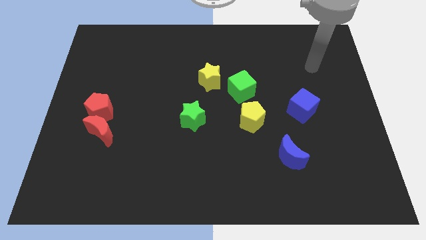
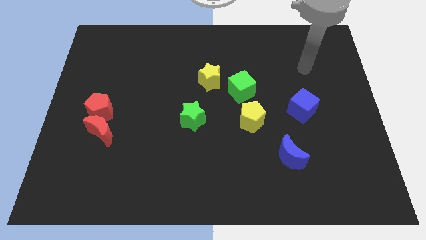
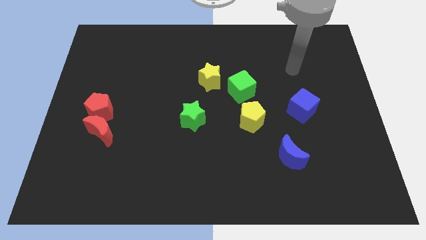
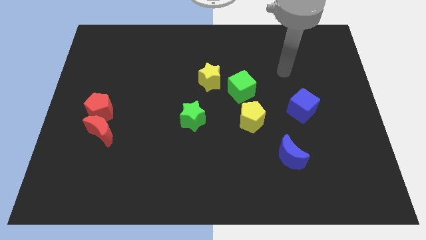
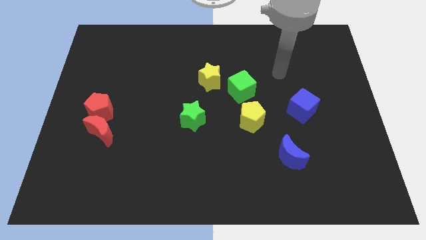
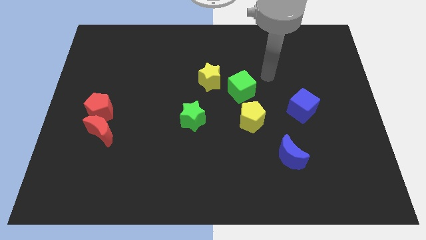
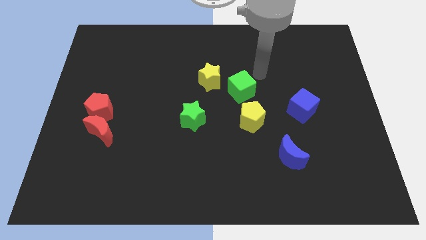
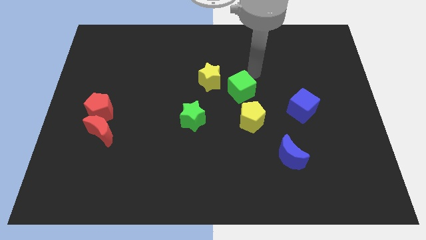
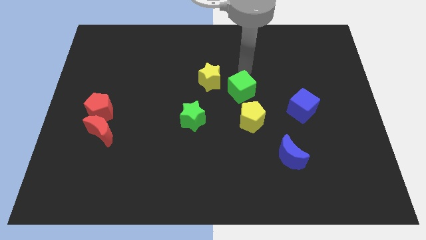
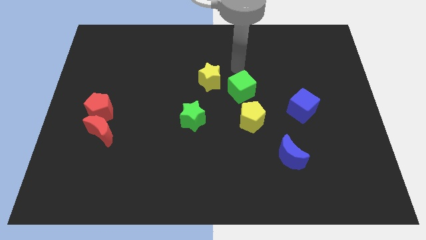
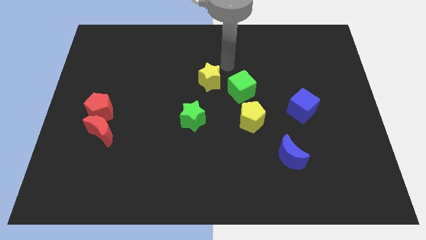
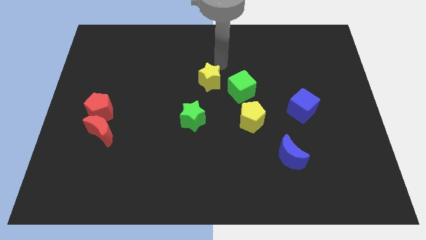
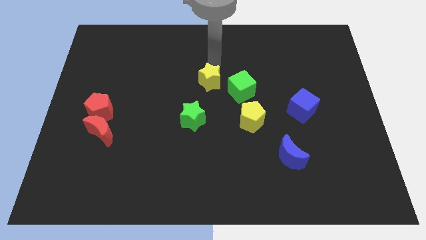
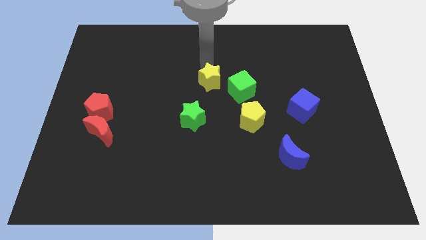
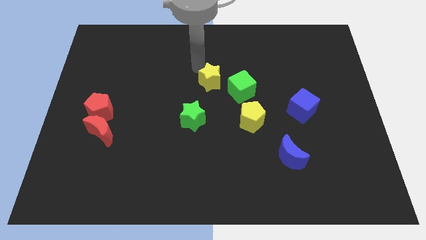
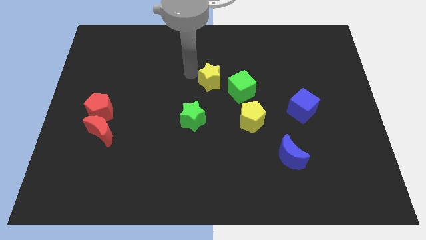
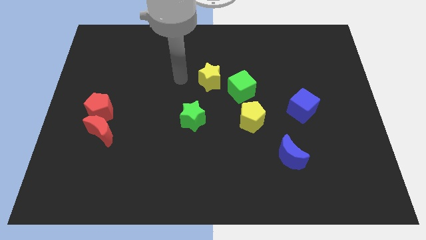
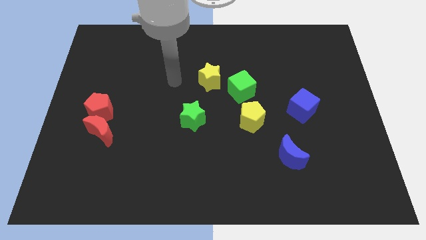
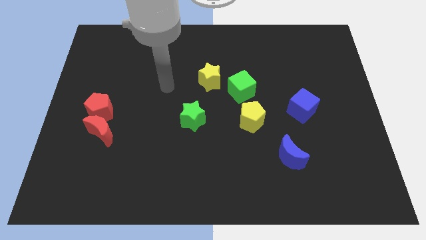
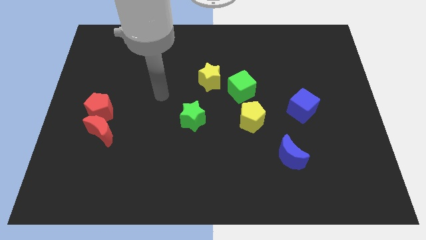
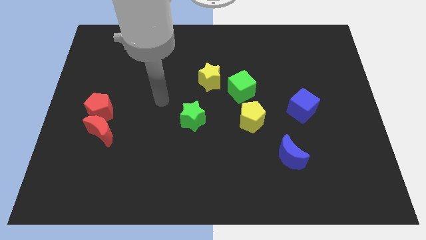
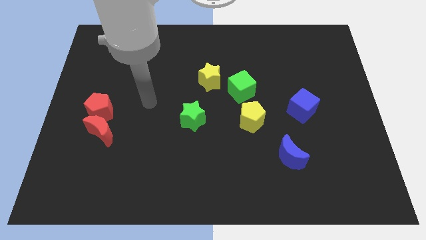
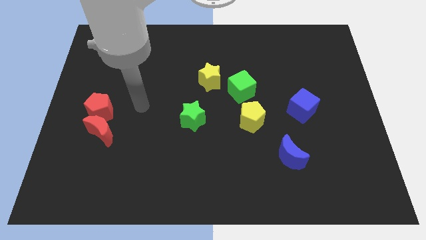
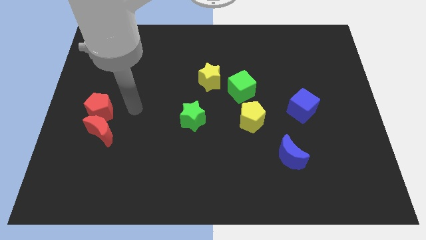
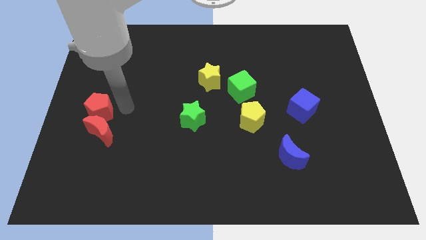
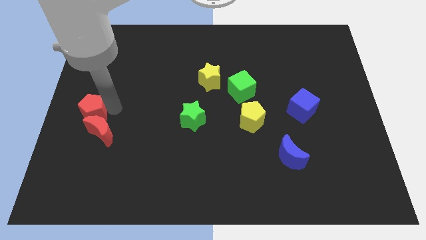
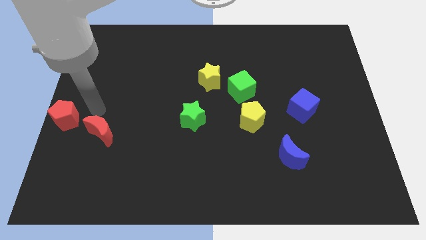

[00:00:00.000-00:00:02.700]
move the red moon away from the red pentagon

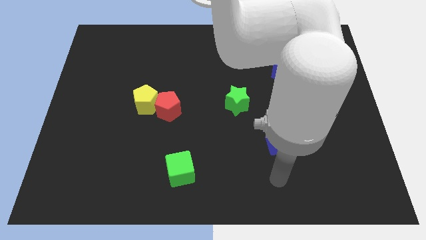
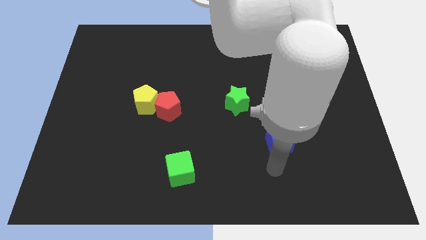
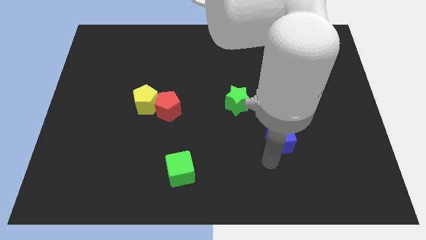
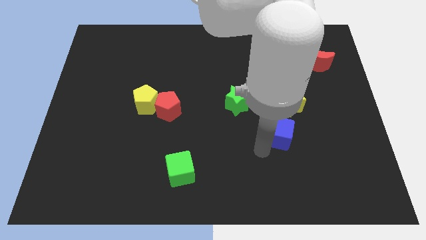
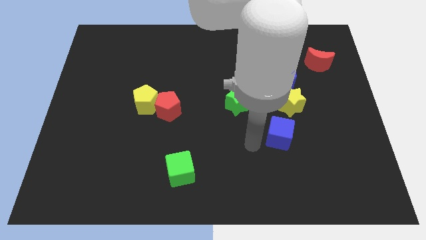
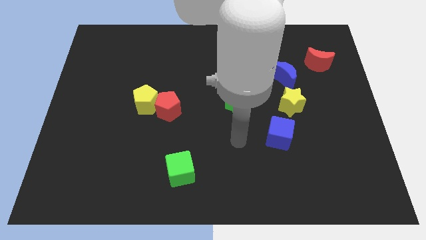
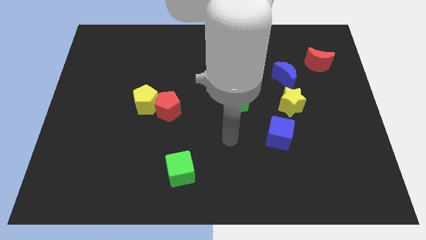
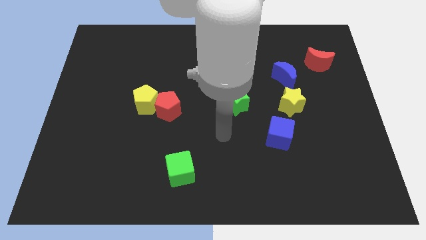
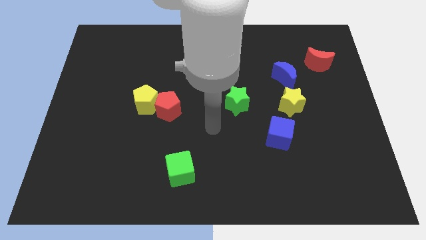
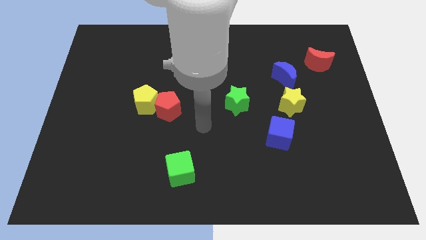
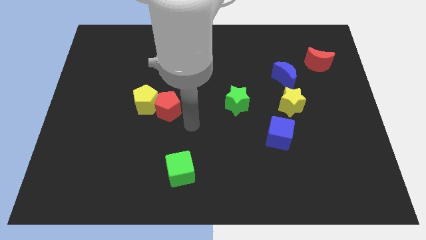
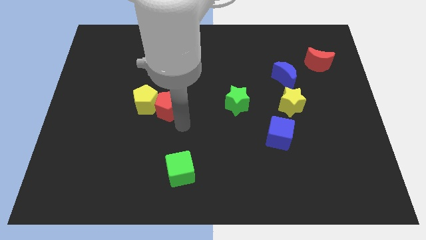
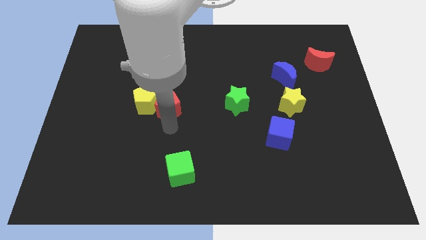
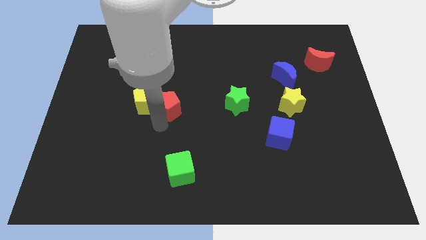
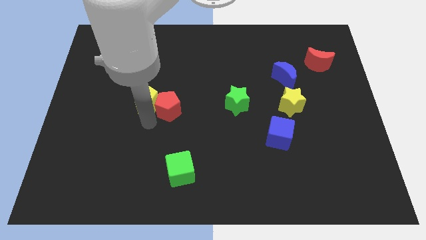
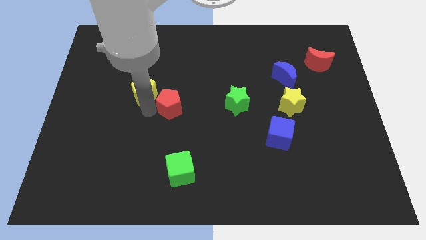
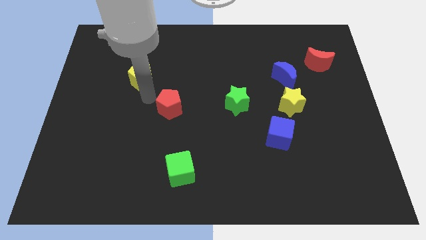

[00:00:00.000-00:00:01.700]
move the red pentagon away from the yellow pentagon

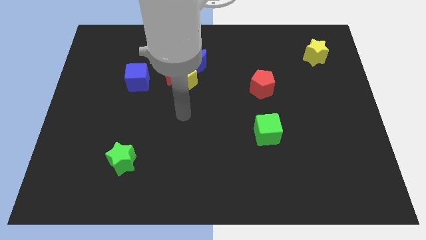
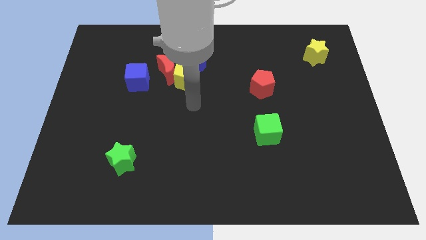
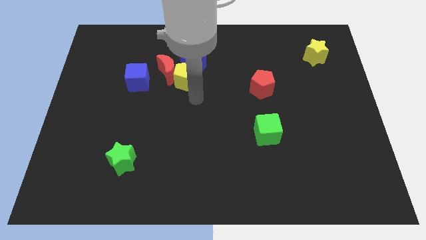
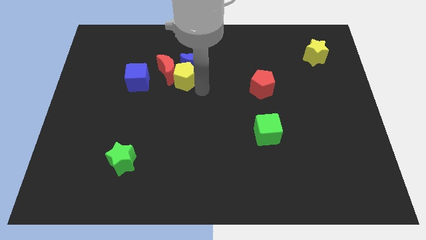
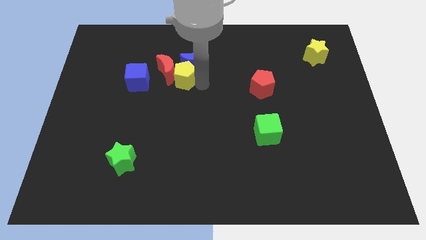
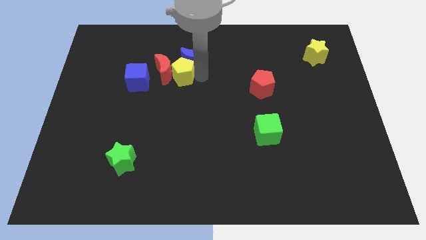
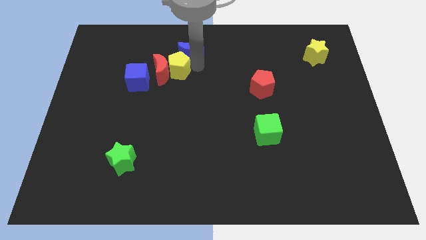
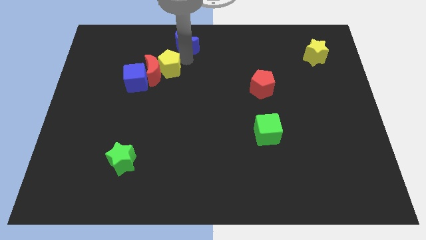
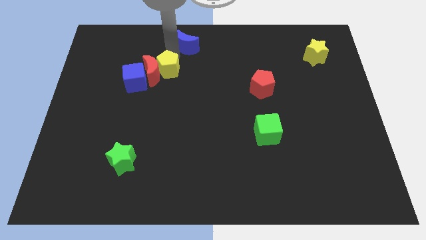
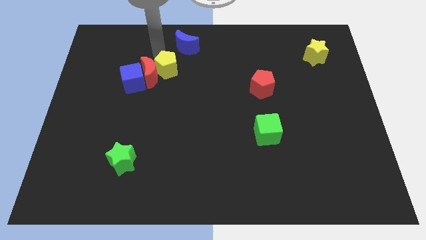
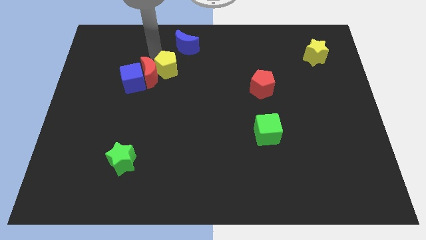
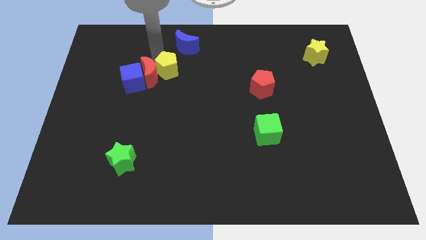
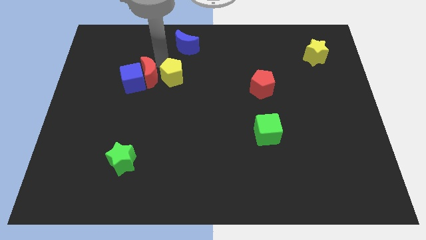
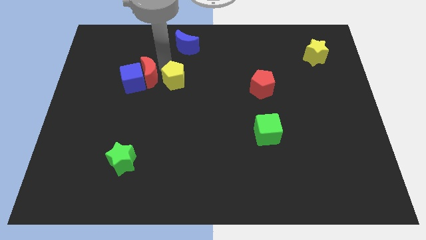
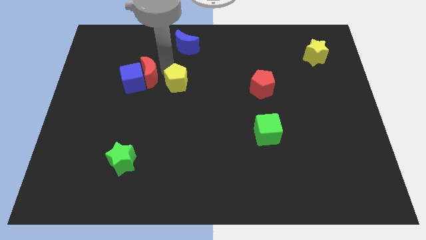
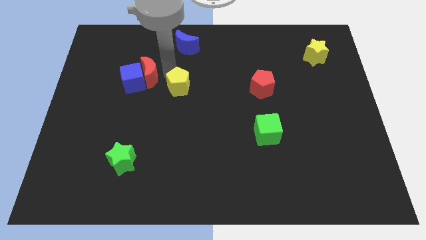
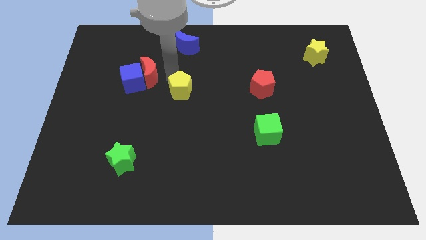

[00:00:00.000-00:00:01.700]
separate the yellow pentagon from the red moon and blue moon

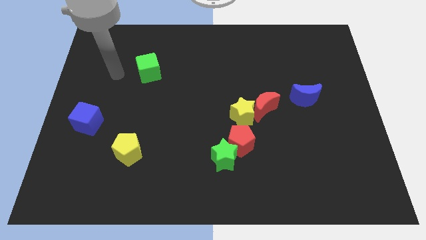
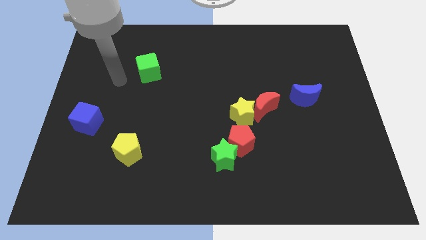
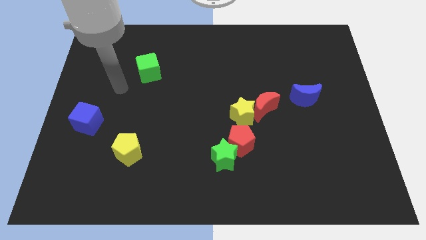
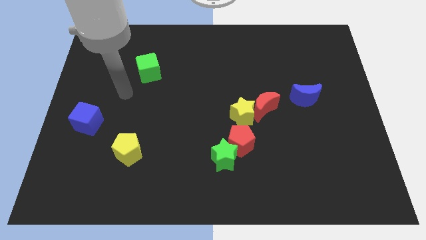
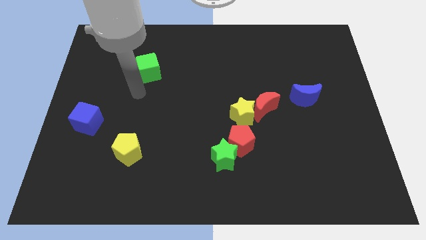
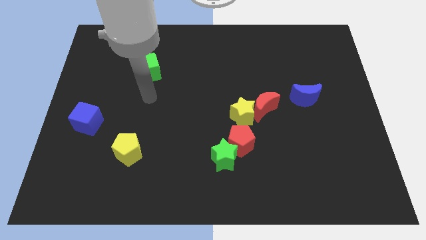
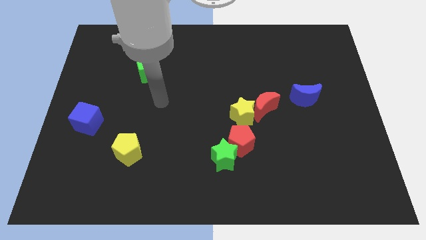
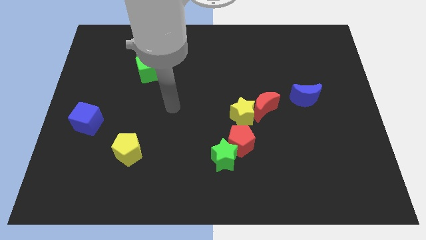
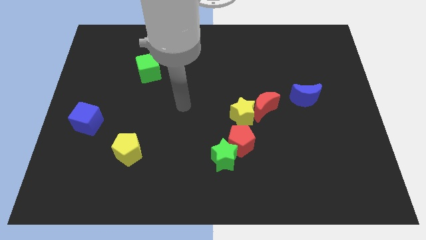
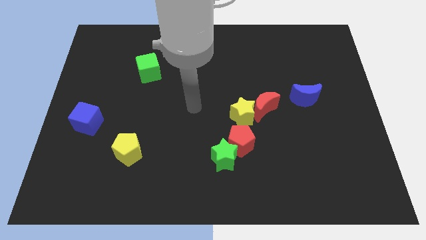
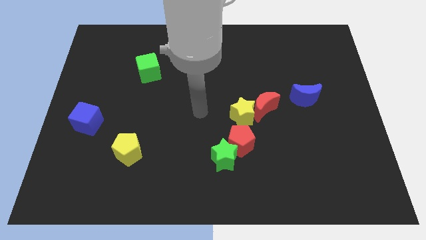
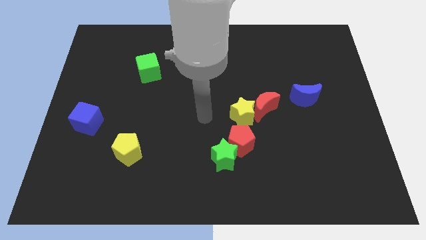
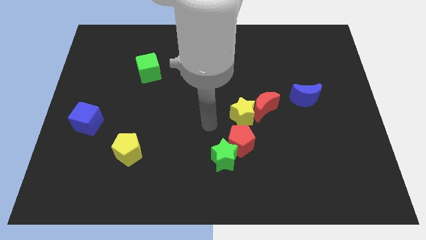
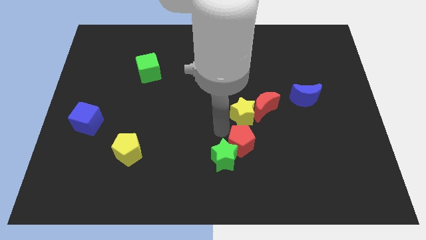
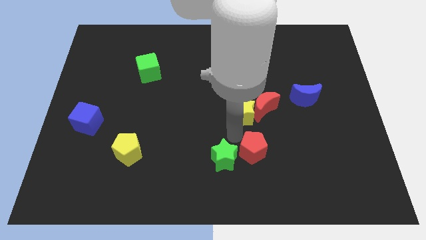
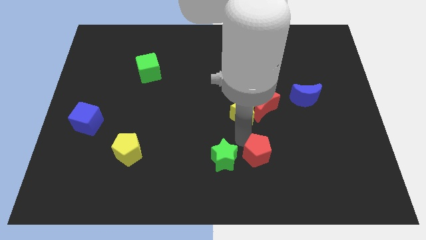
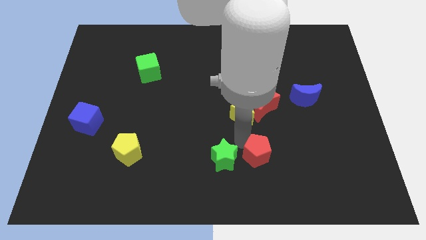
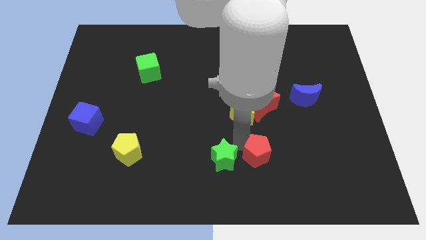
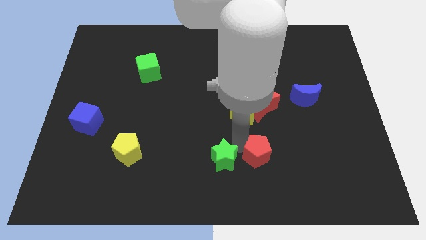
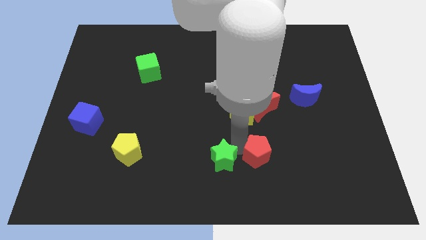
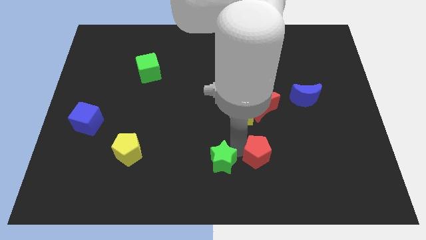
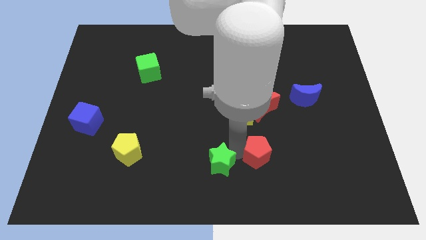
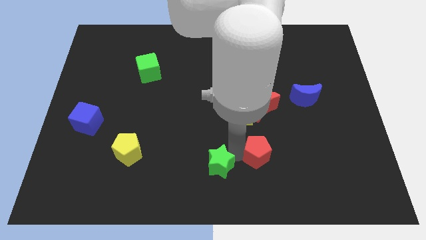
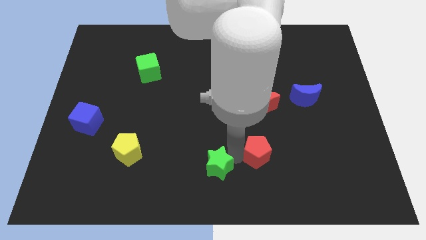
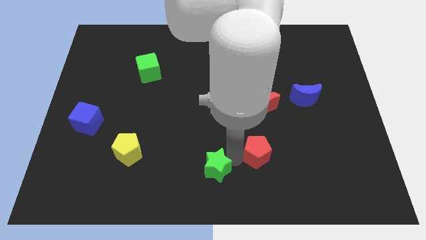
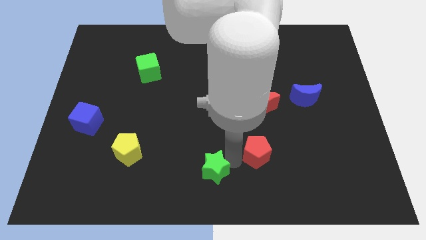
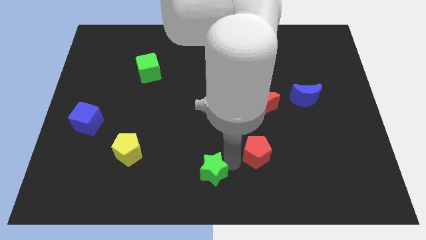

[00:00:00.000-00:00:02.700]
separate the green star from the red pentagon

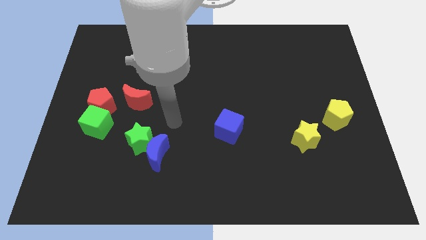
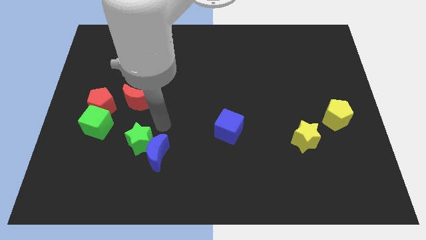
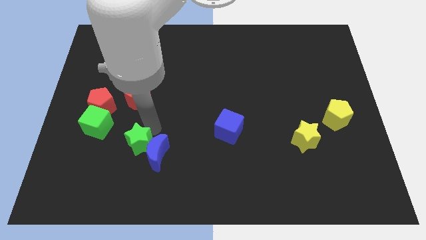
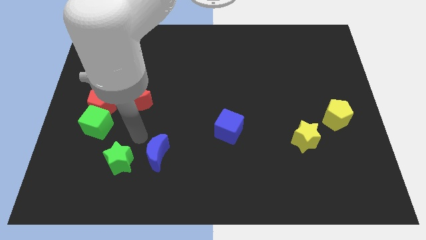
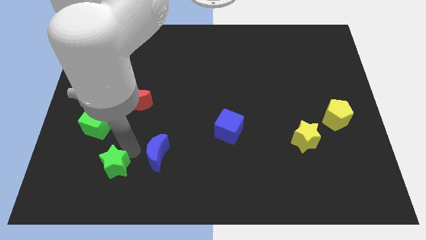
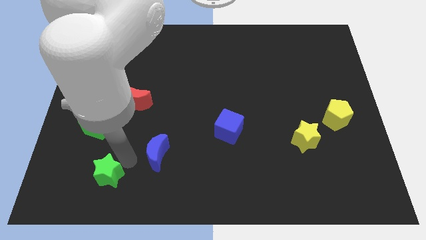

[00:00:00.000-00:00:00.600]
separate the blue moon from the green star
